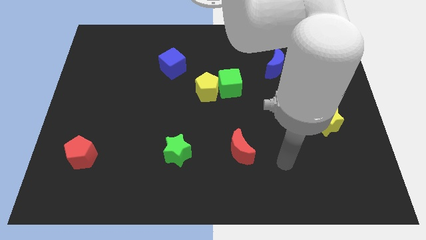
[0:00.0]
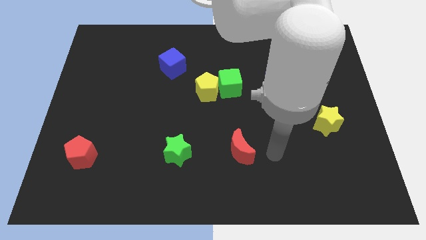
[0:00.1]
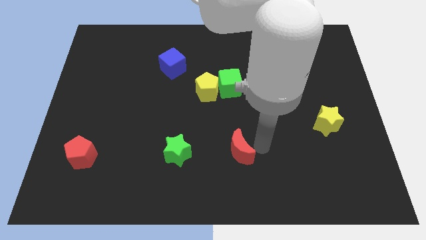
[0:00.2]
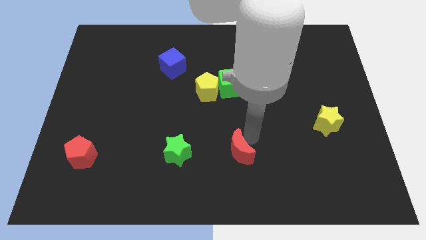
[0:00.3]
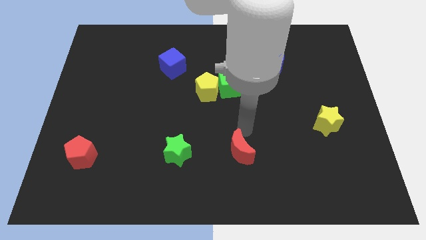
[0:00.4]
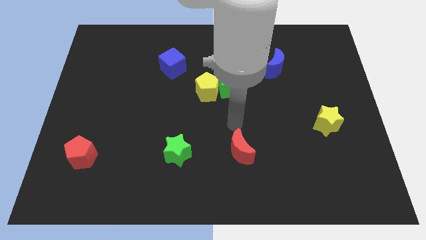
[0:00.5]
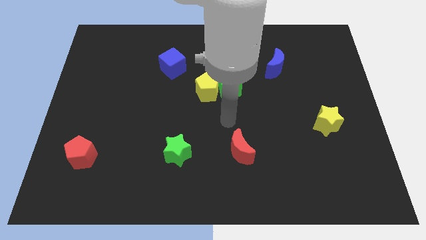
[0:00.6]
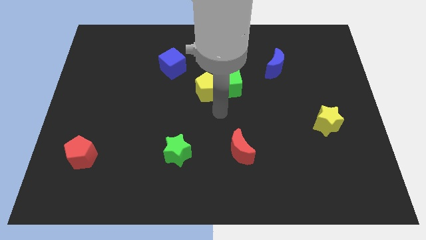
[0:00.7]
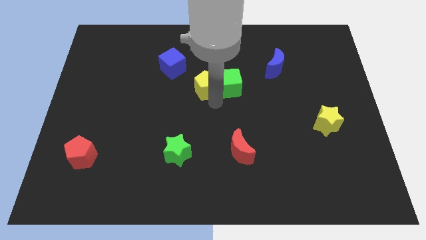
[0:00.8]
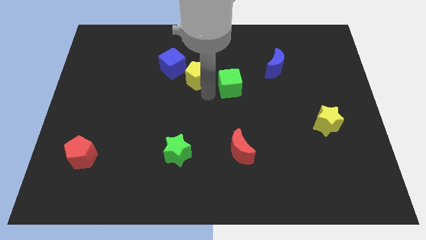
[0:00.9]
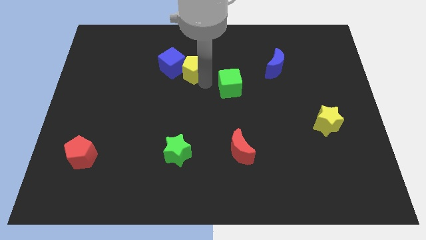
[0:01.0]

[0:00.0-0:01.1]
separate the green cube from the yellow pentagon

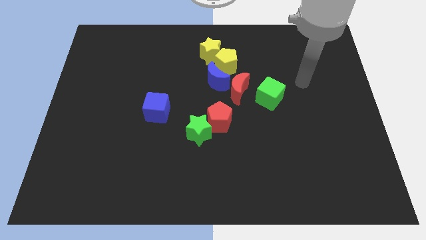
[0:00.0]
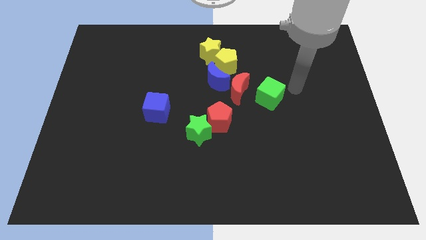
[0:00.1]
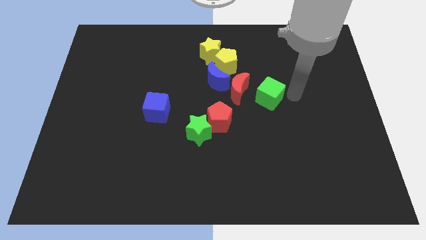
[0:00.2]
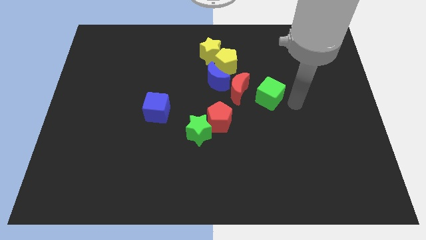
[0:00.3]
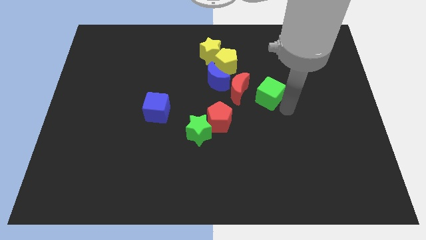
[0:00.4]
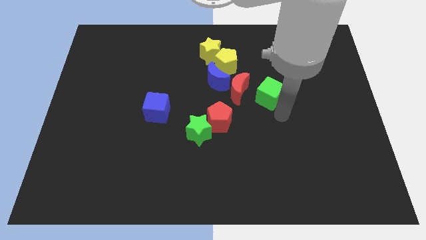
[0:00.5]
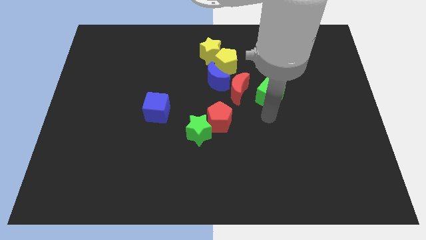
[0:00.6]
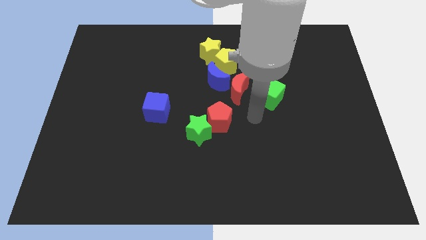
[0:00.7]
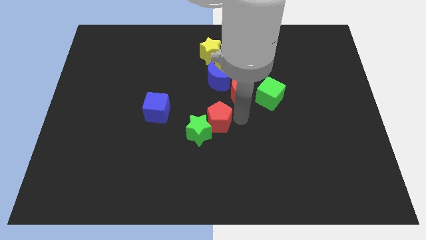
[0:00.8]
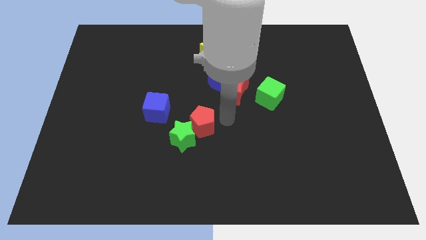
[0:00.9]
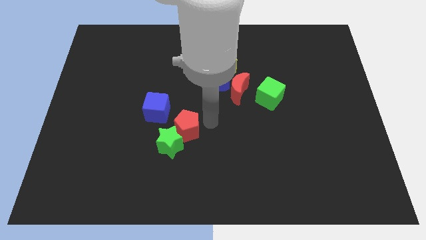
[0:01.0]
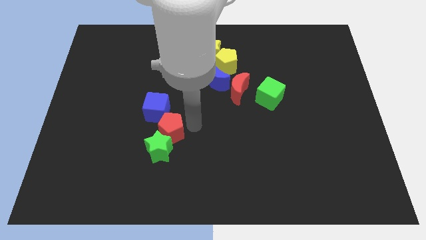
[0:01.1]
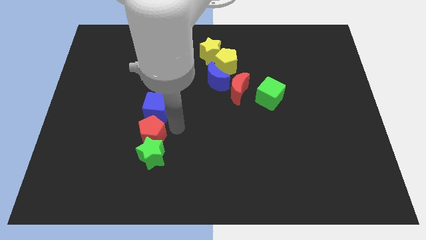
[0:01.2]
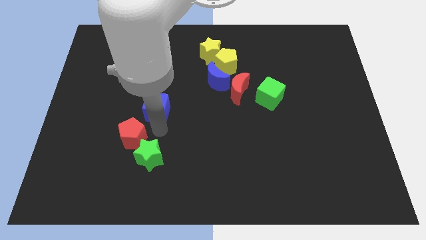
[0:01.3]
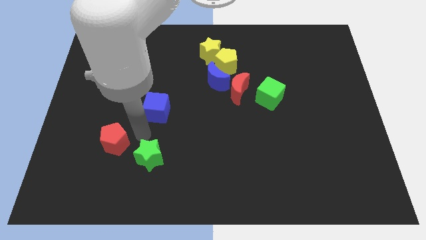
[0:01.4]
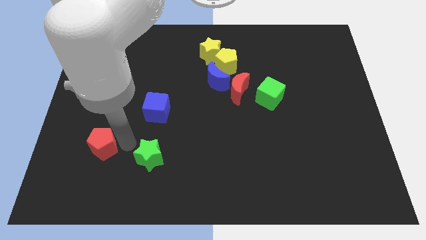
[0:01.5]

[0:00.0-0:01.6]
pull the green star apart from the red pentagon

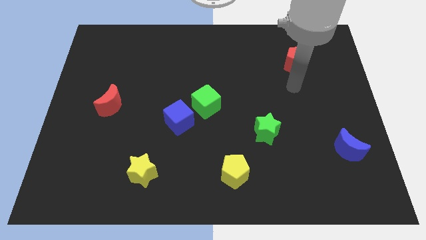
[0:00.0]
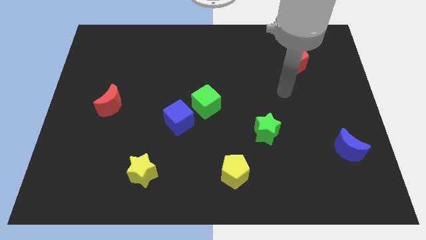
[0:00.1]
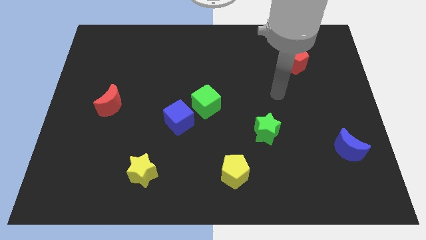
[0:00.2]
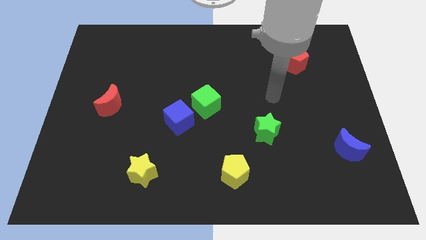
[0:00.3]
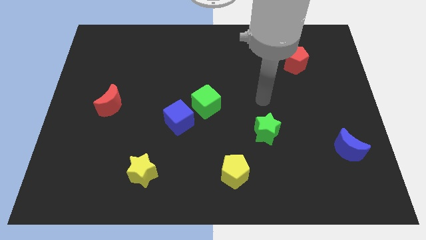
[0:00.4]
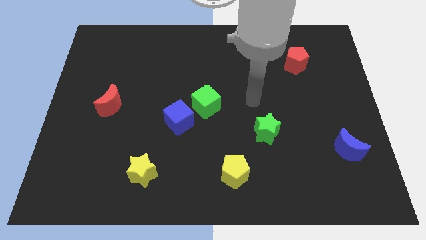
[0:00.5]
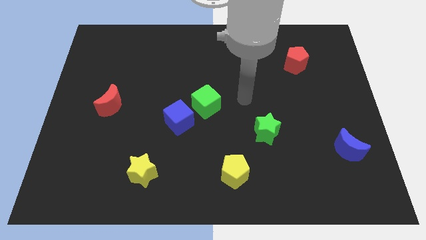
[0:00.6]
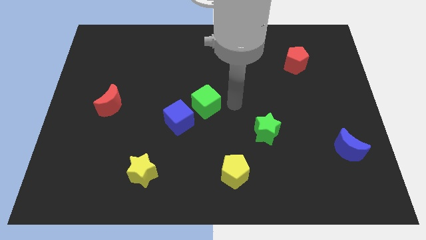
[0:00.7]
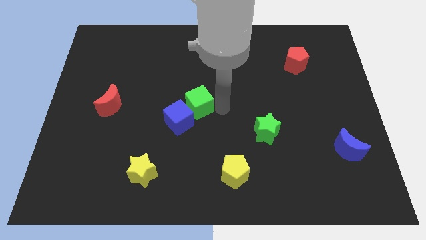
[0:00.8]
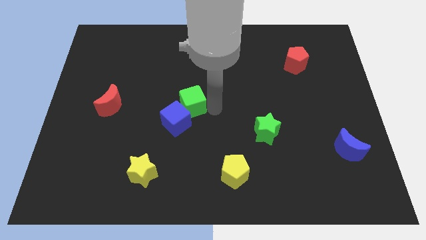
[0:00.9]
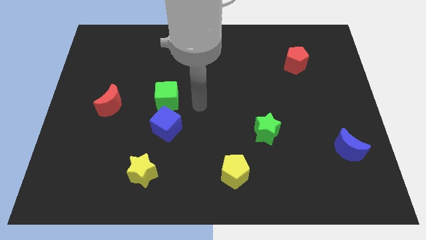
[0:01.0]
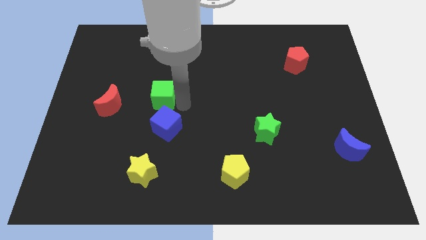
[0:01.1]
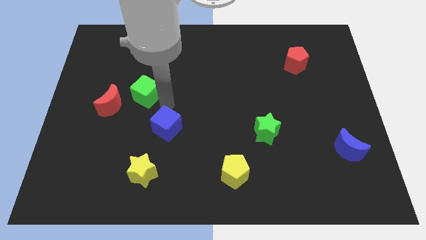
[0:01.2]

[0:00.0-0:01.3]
move the blue cube away from the green cube

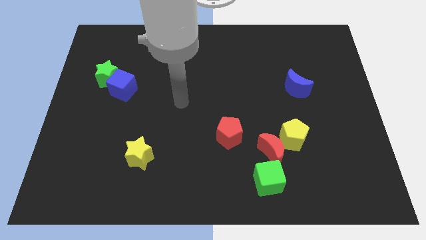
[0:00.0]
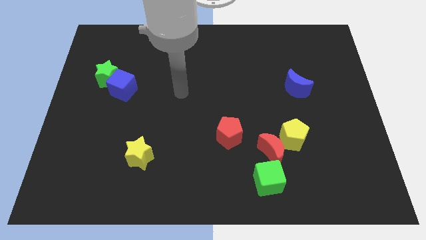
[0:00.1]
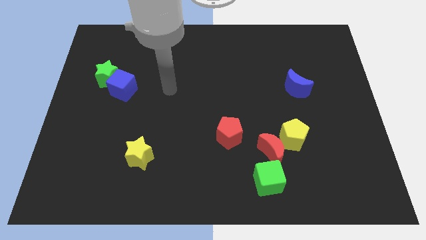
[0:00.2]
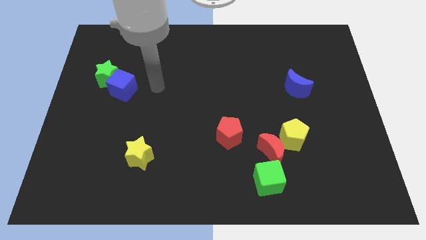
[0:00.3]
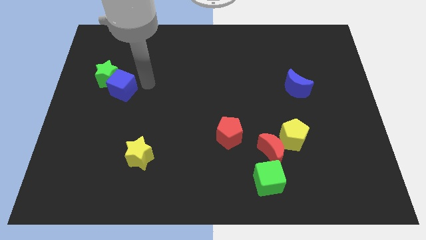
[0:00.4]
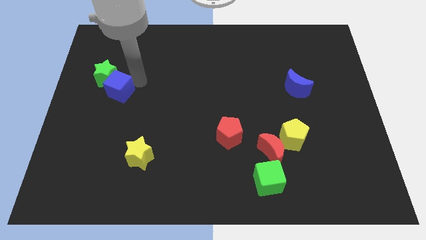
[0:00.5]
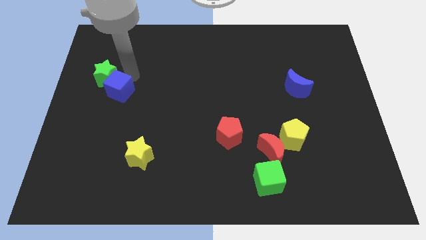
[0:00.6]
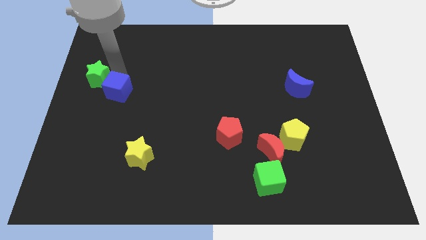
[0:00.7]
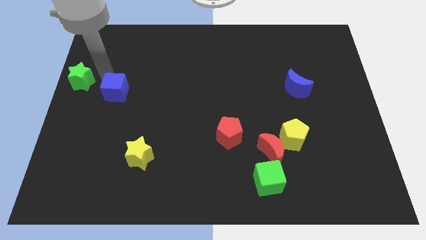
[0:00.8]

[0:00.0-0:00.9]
separate the blue cube from the green star

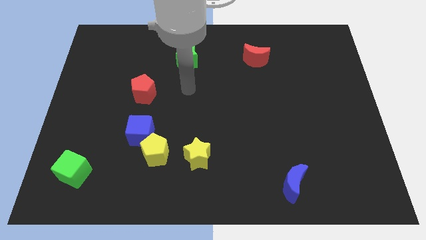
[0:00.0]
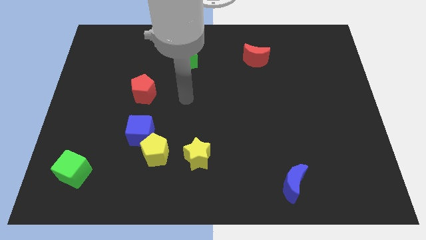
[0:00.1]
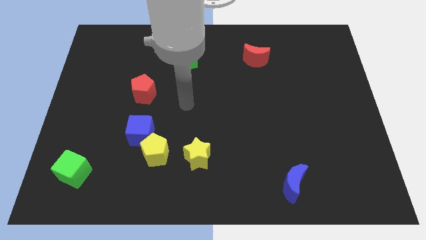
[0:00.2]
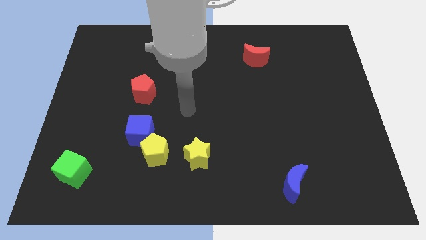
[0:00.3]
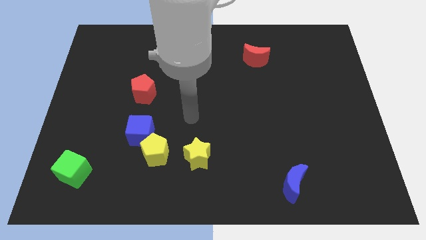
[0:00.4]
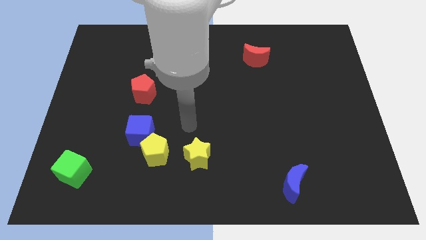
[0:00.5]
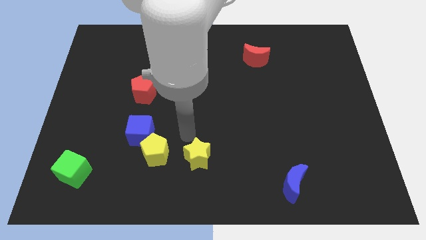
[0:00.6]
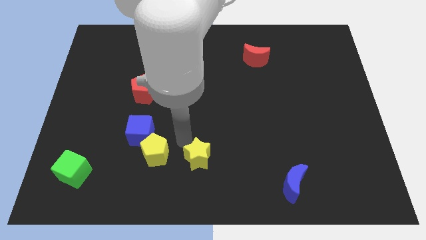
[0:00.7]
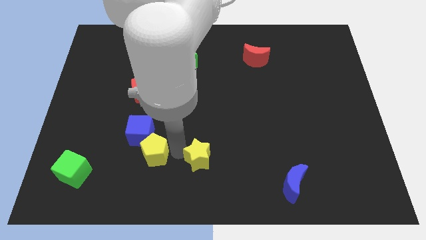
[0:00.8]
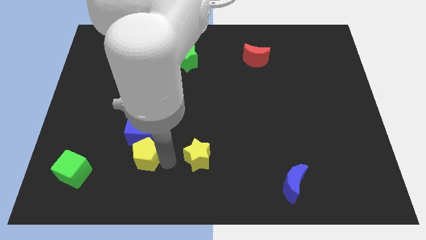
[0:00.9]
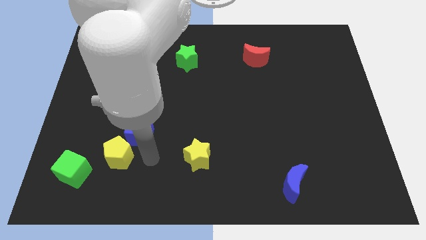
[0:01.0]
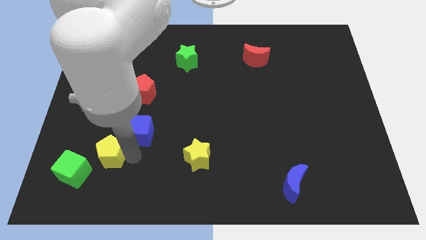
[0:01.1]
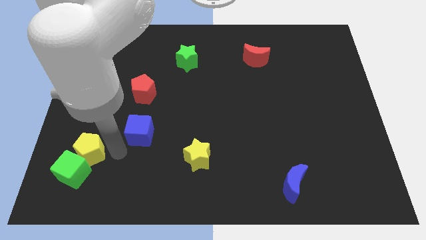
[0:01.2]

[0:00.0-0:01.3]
pull the blue cube apart from the yellow pentagon

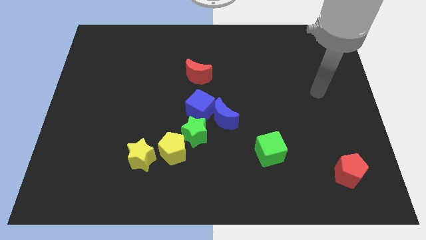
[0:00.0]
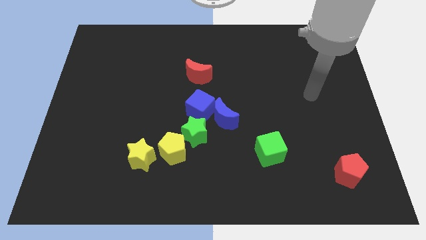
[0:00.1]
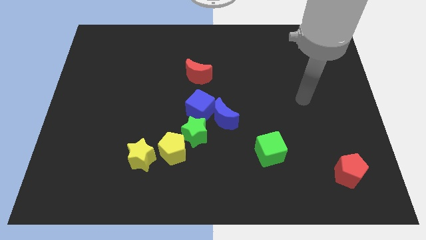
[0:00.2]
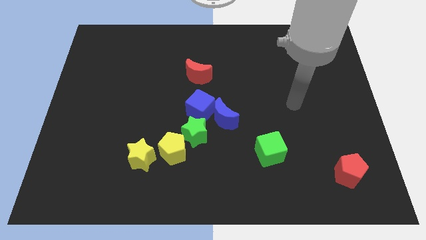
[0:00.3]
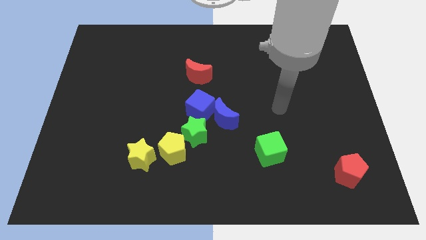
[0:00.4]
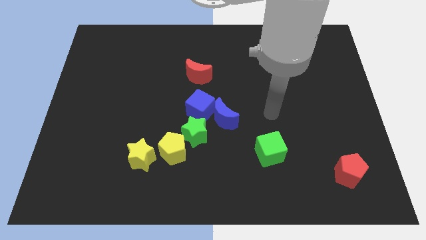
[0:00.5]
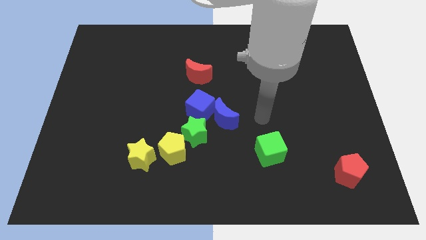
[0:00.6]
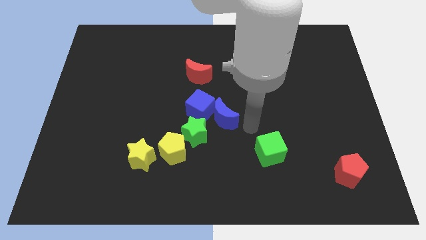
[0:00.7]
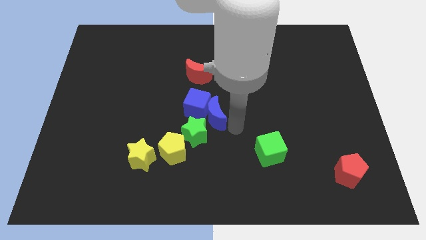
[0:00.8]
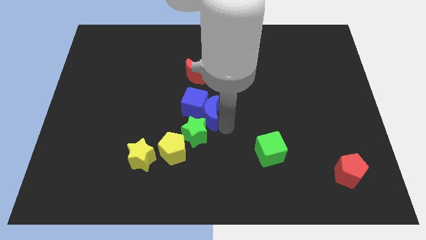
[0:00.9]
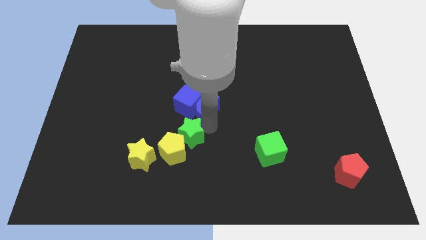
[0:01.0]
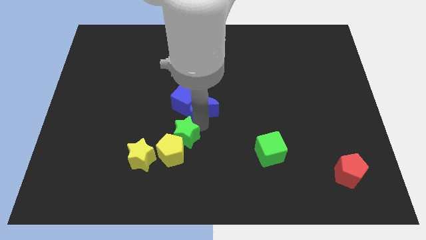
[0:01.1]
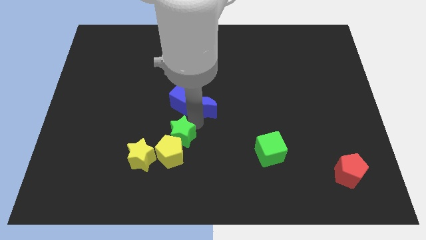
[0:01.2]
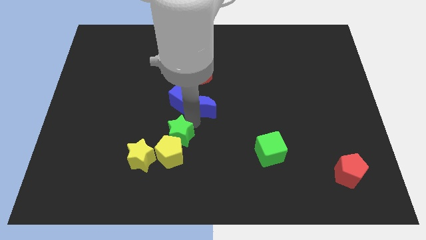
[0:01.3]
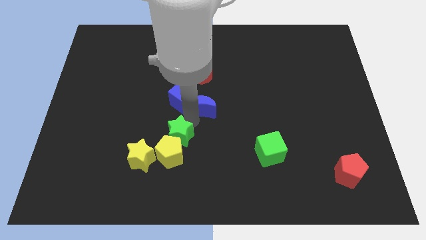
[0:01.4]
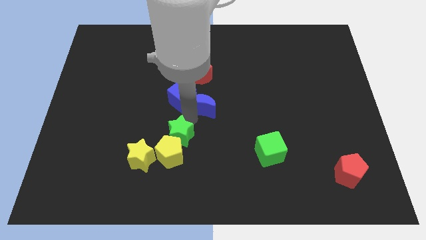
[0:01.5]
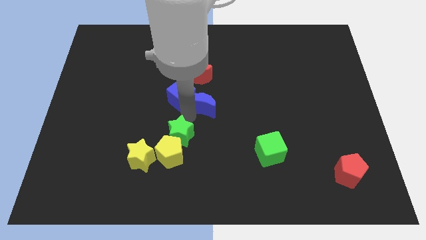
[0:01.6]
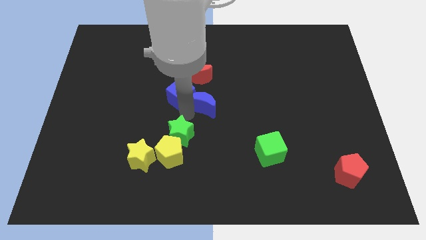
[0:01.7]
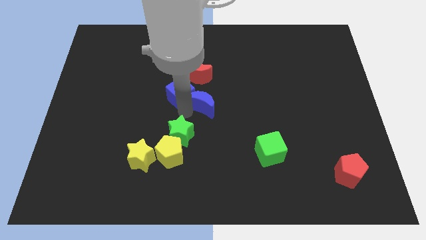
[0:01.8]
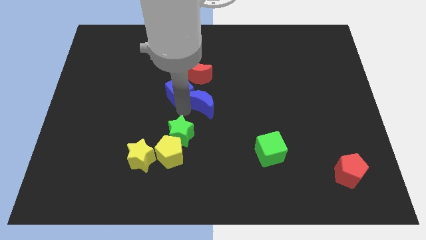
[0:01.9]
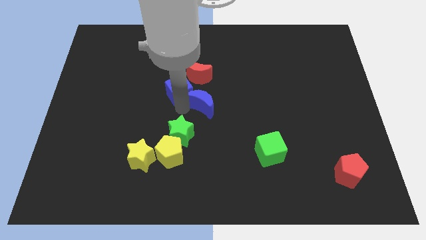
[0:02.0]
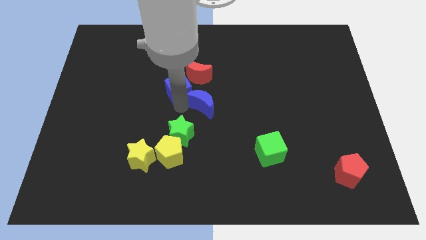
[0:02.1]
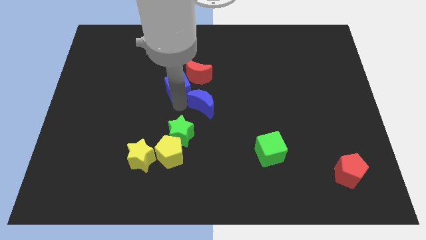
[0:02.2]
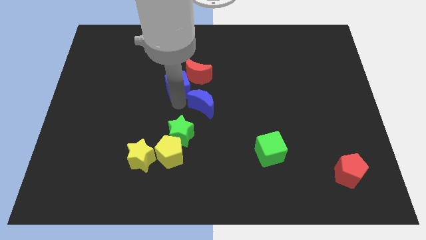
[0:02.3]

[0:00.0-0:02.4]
pull the blue cube apart from the blue moon and green star

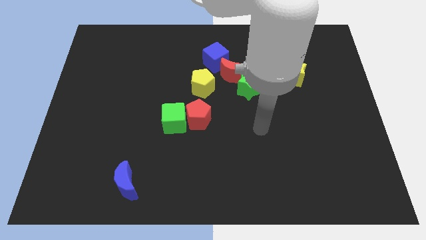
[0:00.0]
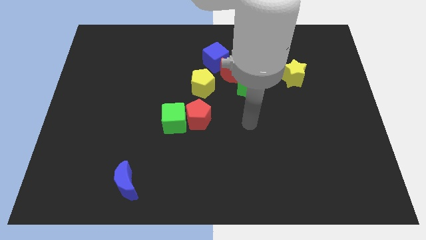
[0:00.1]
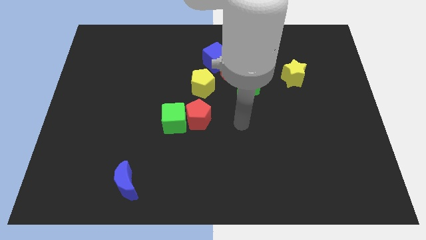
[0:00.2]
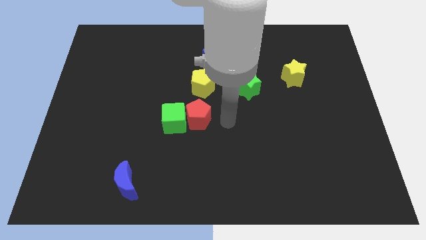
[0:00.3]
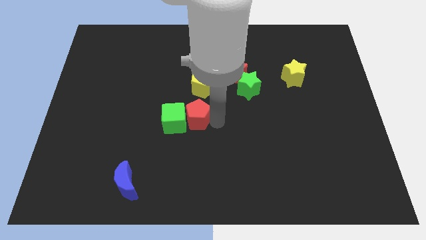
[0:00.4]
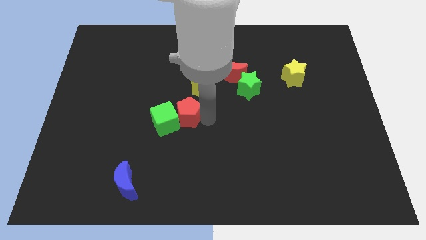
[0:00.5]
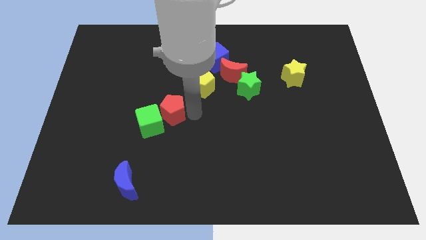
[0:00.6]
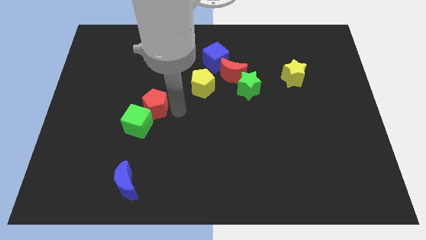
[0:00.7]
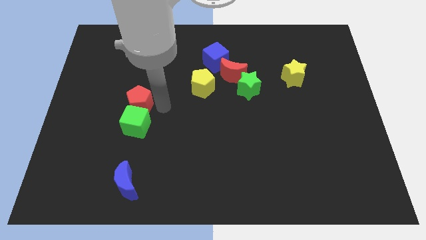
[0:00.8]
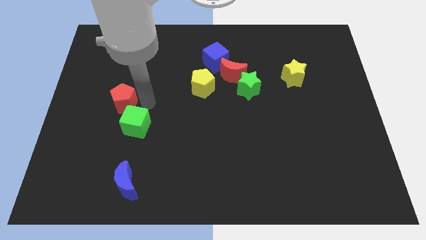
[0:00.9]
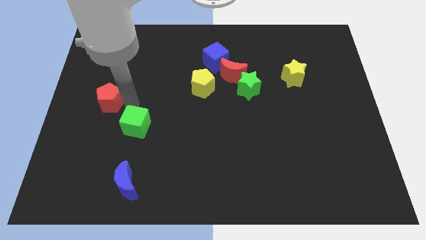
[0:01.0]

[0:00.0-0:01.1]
pull the green cube apart from the red pentagon
